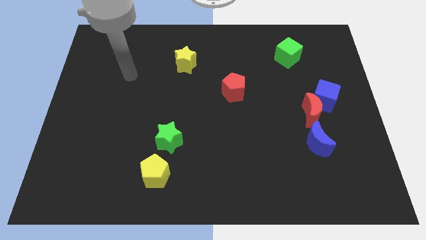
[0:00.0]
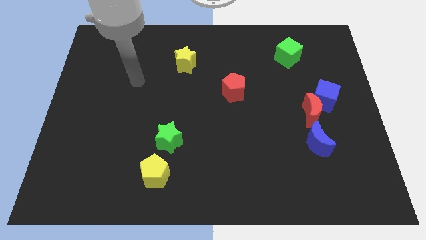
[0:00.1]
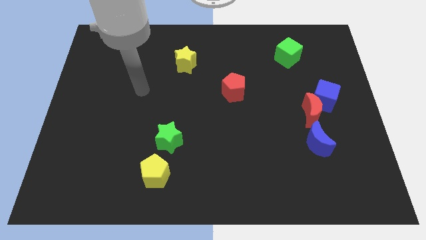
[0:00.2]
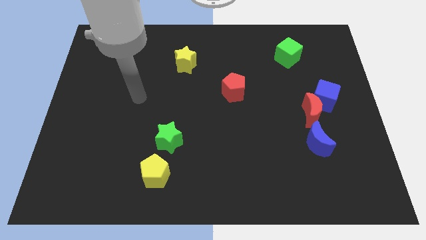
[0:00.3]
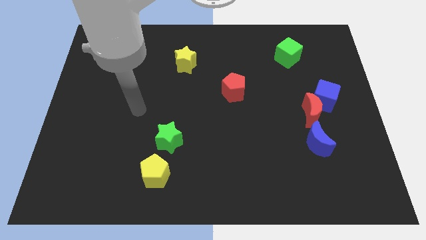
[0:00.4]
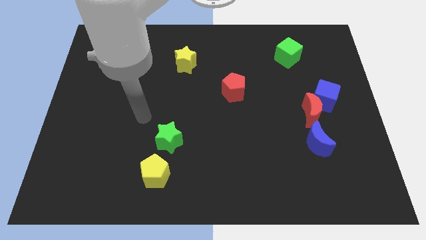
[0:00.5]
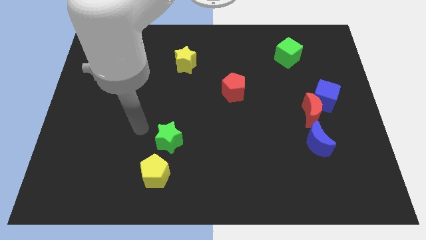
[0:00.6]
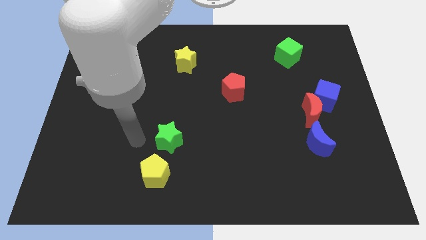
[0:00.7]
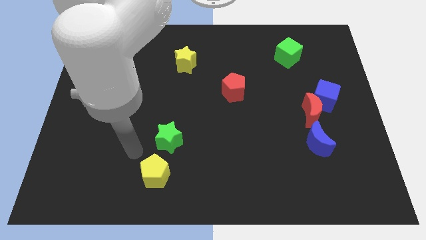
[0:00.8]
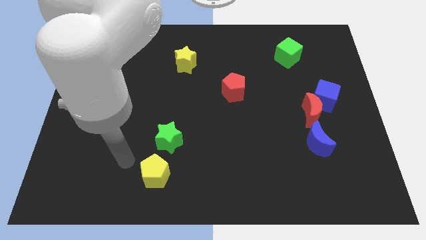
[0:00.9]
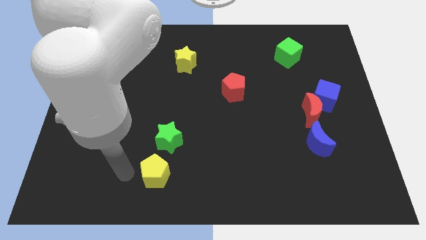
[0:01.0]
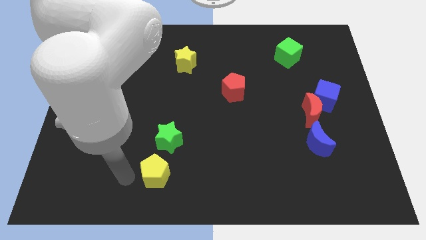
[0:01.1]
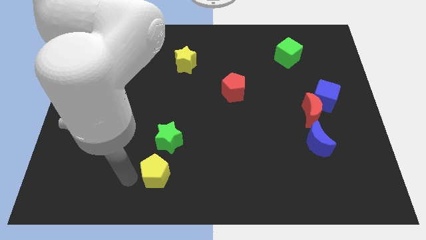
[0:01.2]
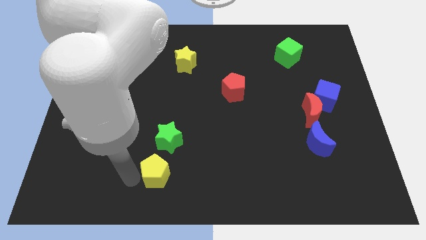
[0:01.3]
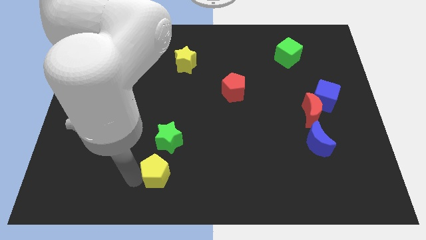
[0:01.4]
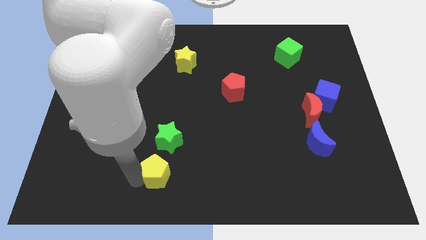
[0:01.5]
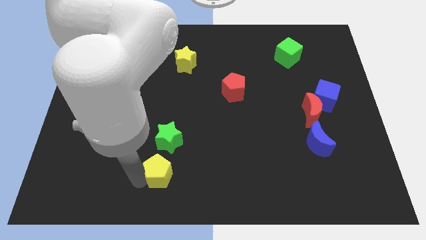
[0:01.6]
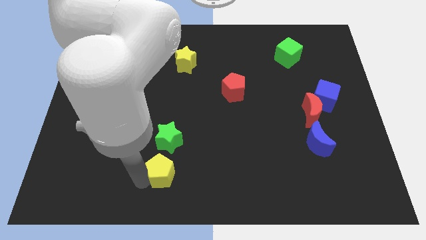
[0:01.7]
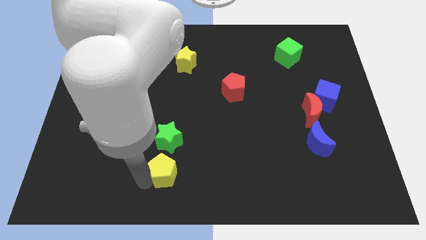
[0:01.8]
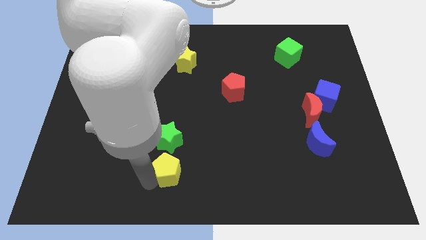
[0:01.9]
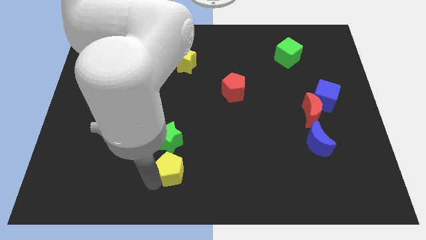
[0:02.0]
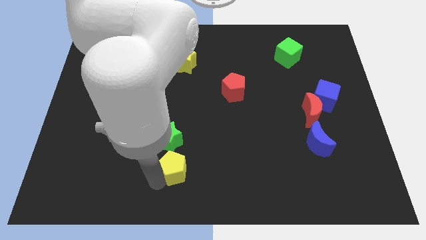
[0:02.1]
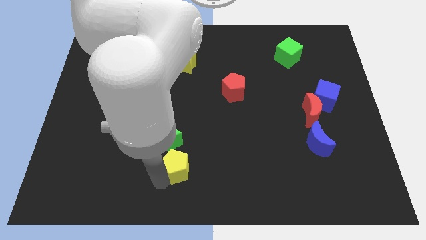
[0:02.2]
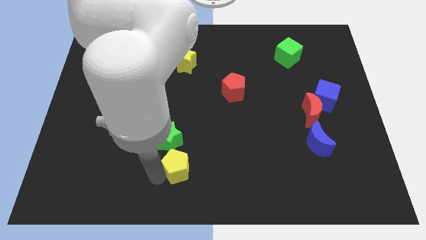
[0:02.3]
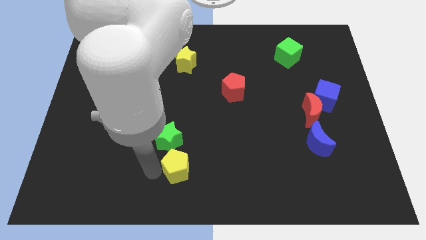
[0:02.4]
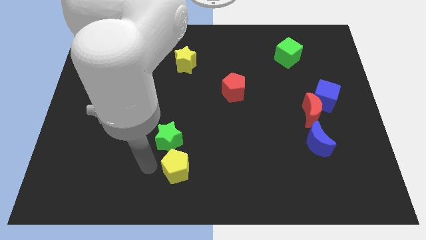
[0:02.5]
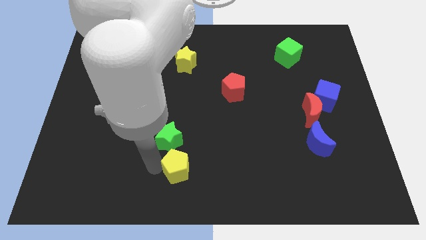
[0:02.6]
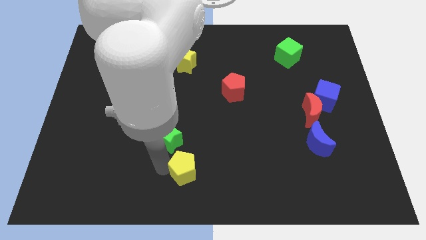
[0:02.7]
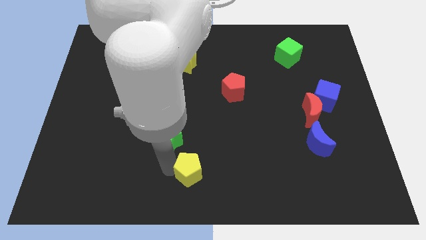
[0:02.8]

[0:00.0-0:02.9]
slightly slide the yellow pentagon right

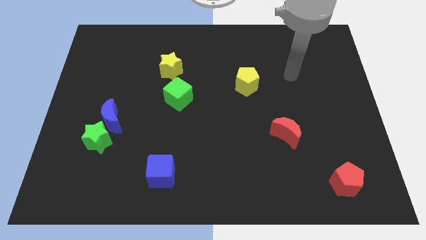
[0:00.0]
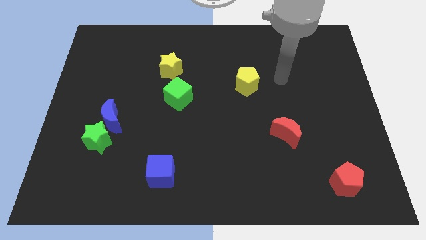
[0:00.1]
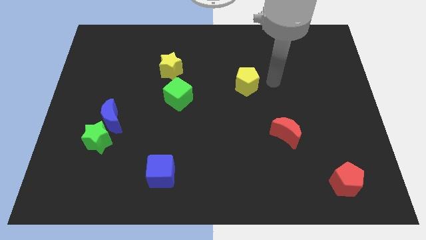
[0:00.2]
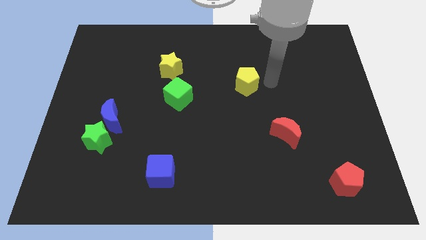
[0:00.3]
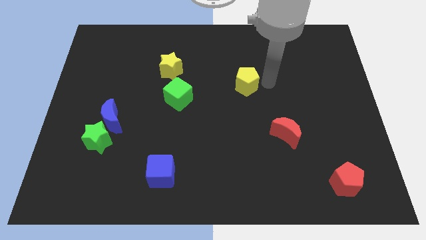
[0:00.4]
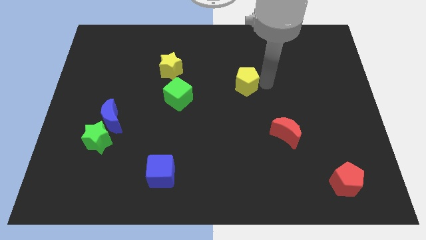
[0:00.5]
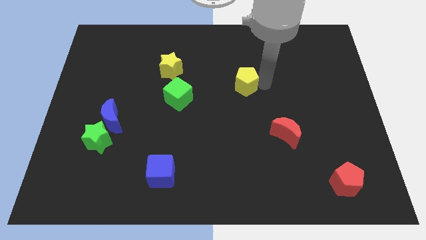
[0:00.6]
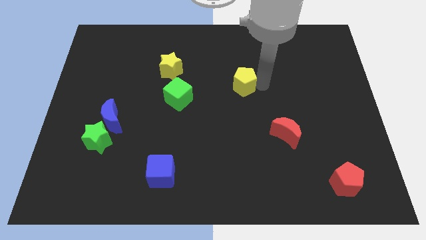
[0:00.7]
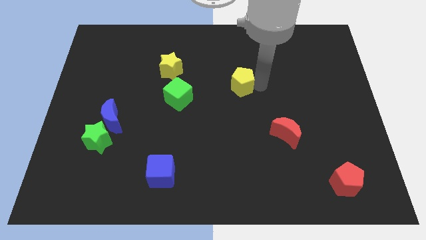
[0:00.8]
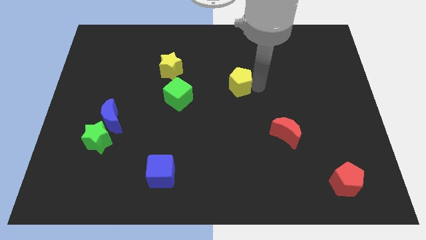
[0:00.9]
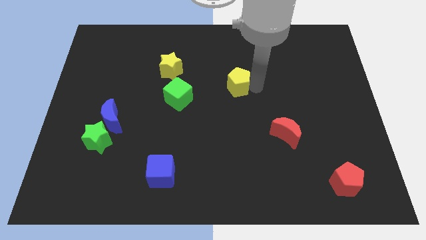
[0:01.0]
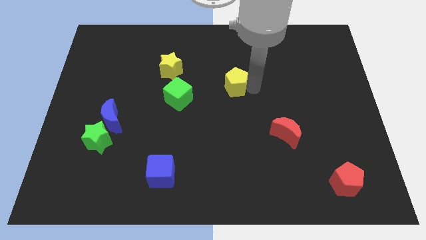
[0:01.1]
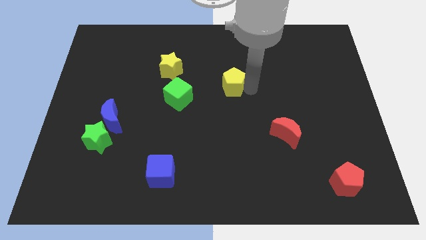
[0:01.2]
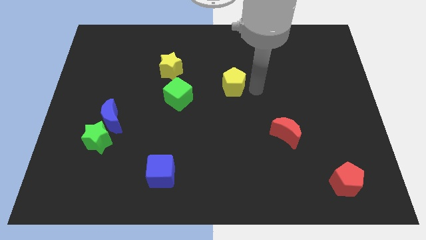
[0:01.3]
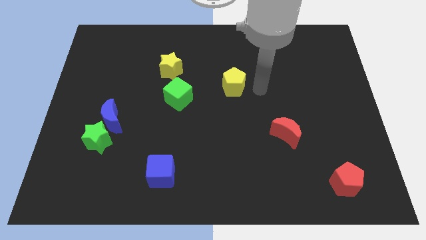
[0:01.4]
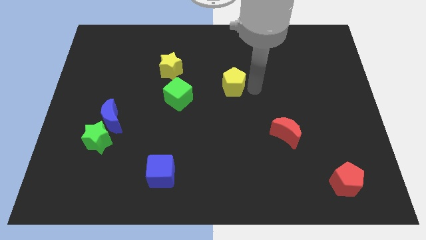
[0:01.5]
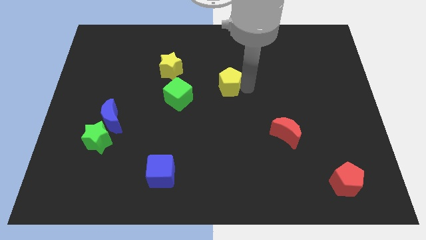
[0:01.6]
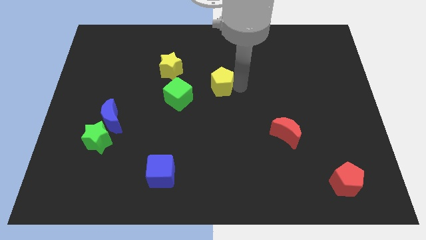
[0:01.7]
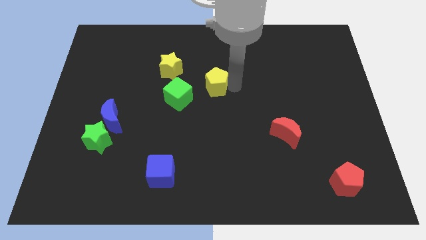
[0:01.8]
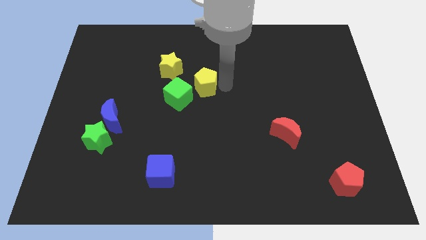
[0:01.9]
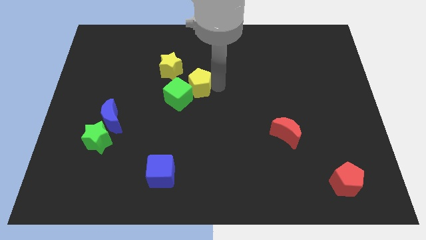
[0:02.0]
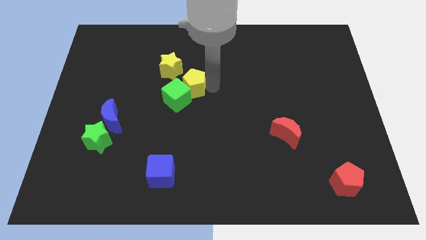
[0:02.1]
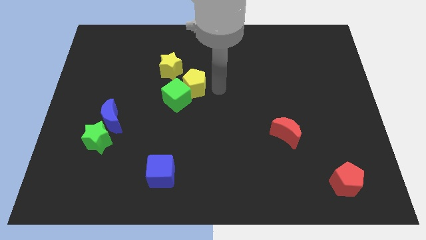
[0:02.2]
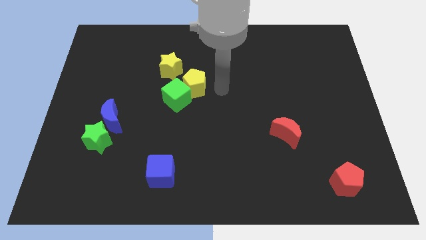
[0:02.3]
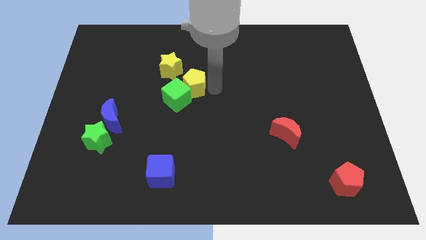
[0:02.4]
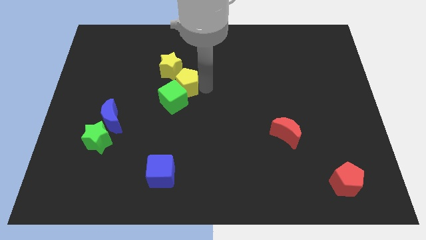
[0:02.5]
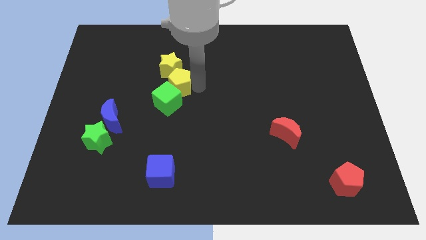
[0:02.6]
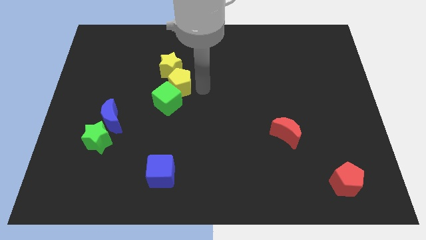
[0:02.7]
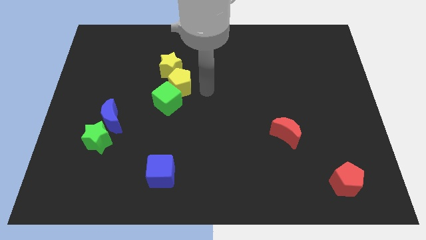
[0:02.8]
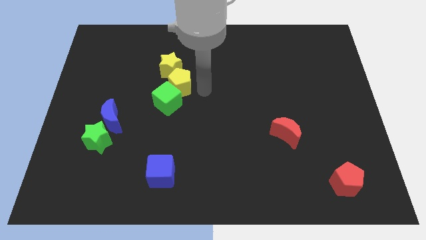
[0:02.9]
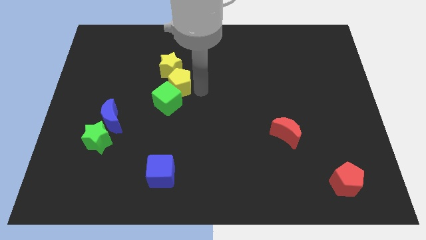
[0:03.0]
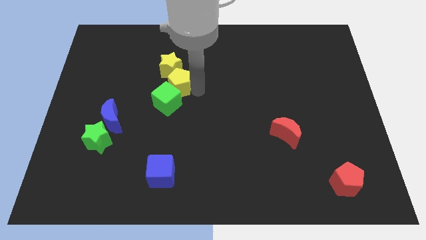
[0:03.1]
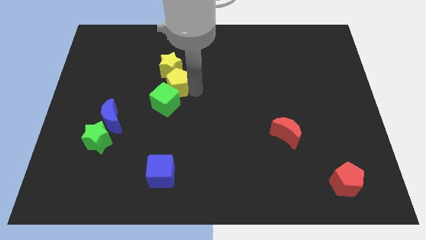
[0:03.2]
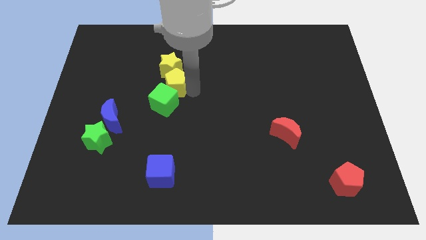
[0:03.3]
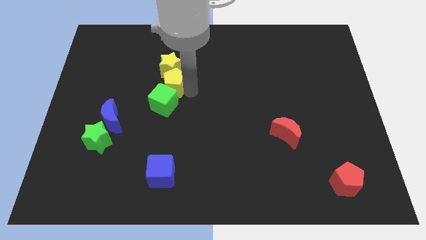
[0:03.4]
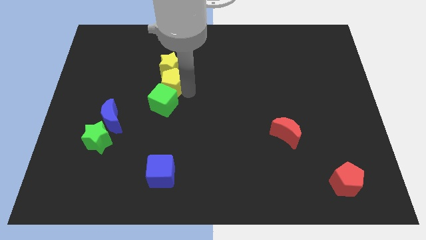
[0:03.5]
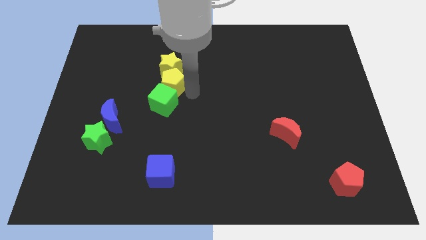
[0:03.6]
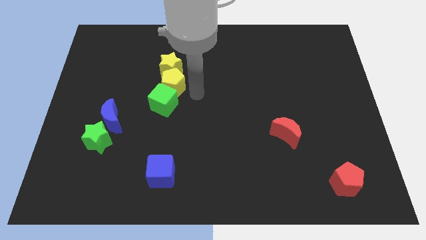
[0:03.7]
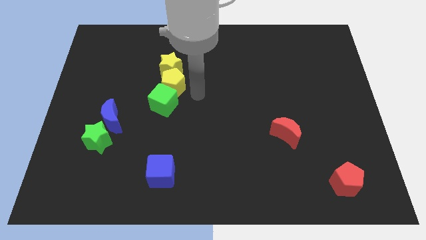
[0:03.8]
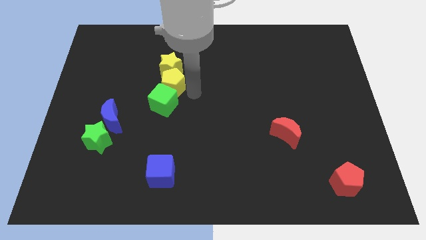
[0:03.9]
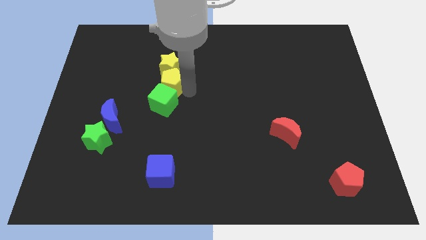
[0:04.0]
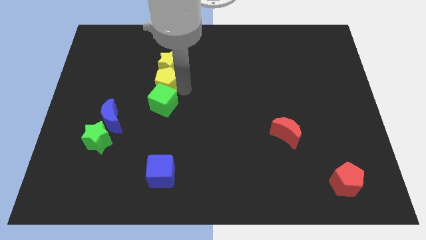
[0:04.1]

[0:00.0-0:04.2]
slide the yellow pentagon to the left

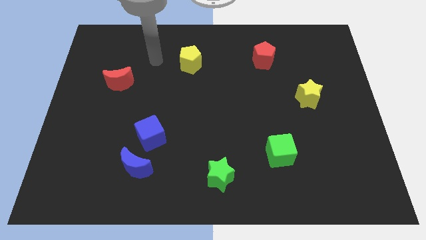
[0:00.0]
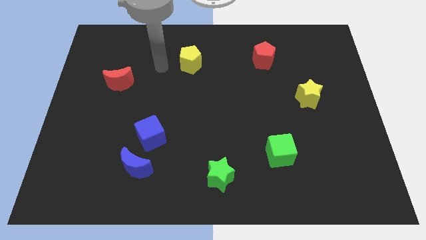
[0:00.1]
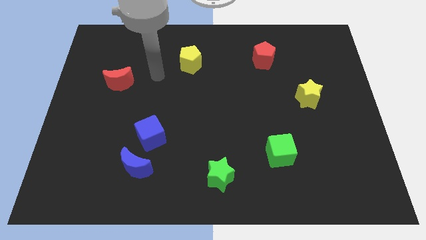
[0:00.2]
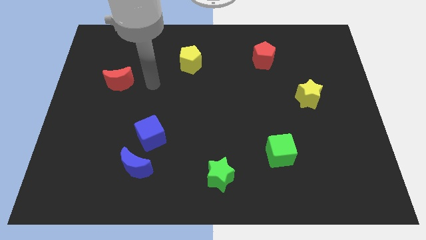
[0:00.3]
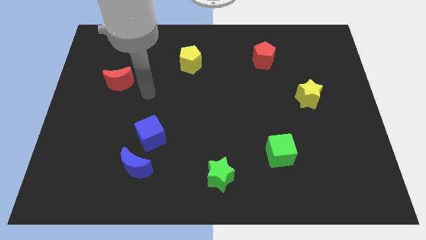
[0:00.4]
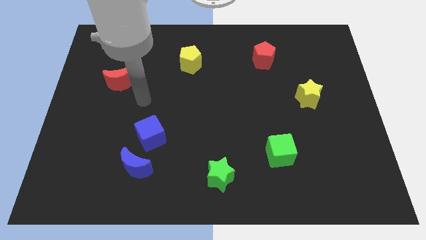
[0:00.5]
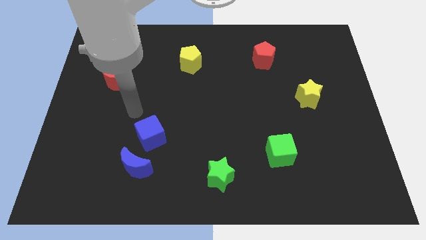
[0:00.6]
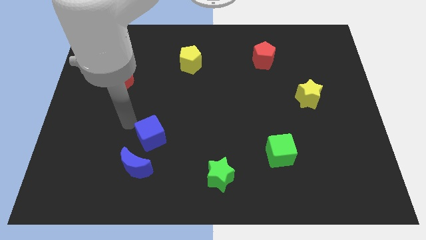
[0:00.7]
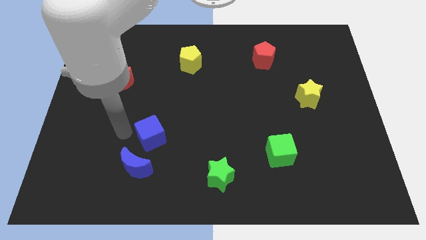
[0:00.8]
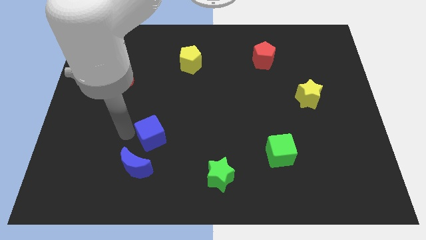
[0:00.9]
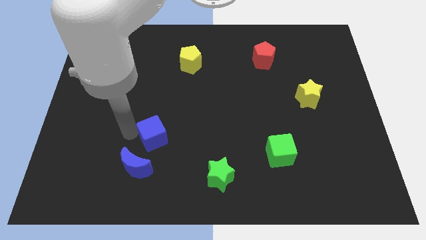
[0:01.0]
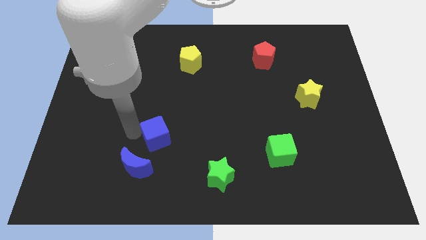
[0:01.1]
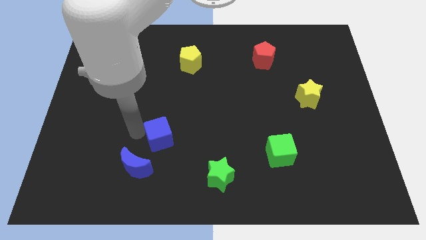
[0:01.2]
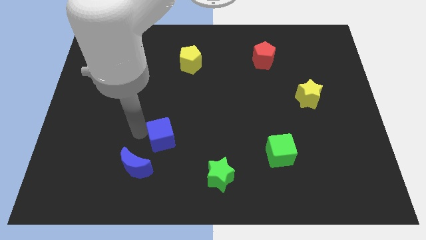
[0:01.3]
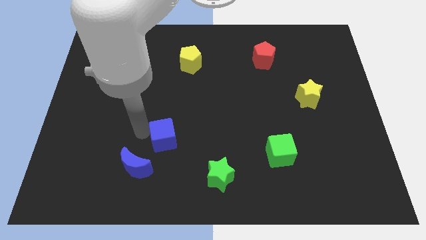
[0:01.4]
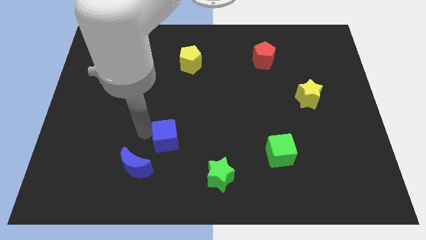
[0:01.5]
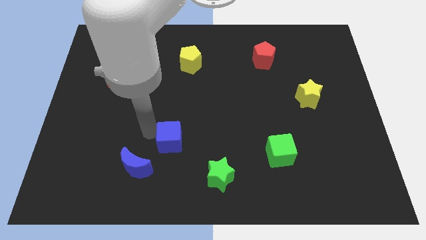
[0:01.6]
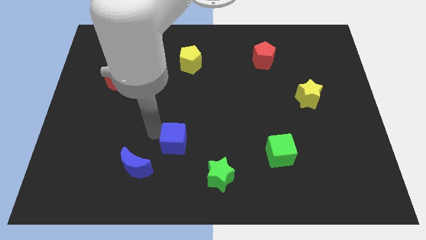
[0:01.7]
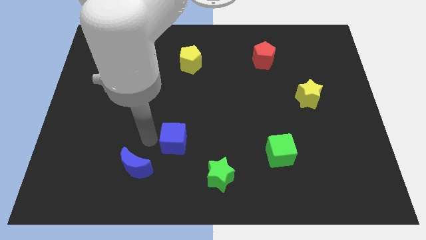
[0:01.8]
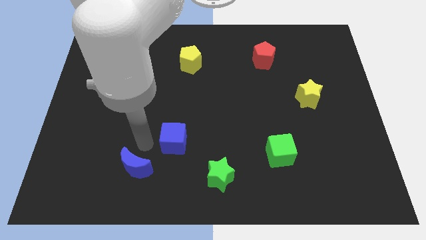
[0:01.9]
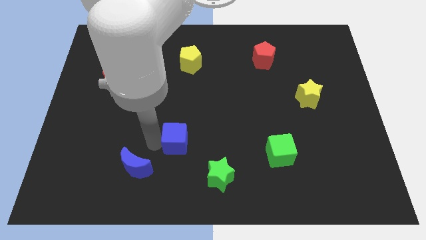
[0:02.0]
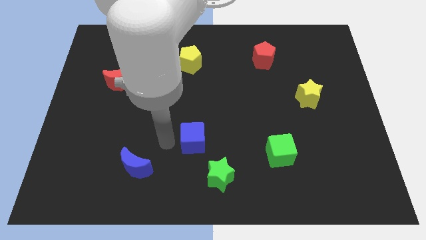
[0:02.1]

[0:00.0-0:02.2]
push the blue cube a bit right
